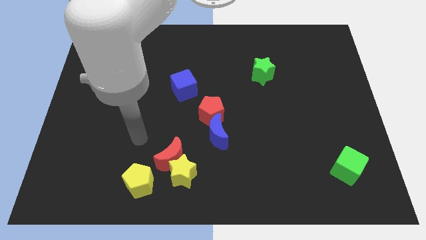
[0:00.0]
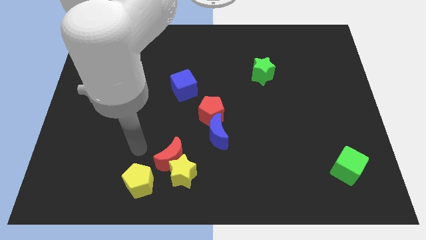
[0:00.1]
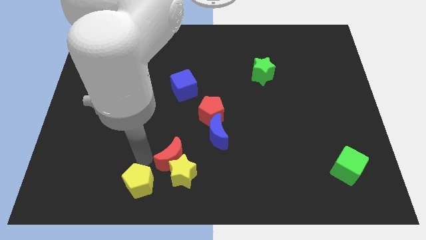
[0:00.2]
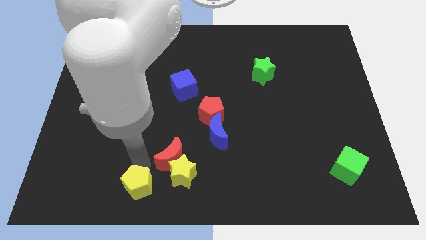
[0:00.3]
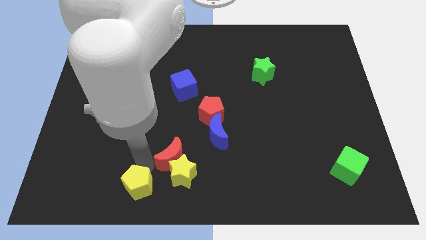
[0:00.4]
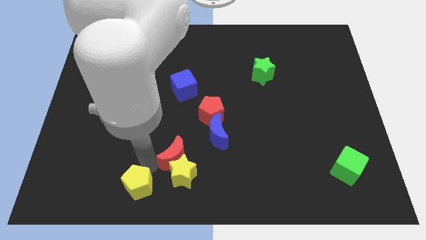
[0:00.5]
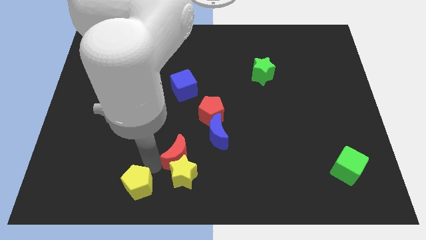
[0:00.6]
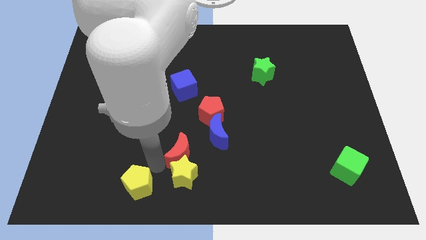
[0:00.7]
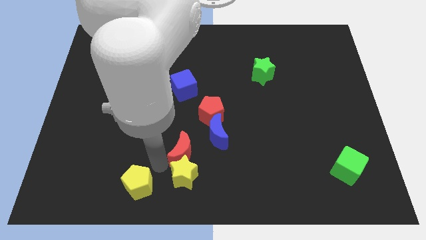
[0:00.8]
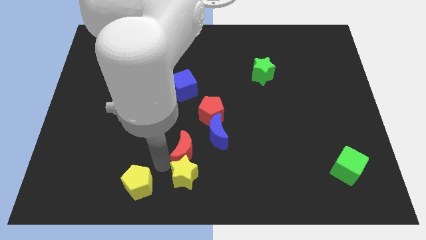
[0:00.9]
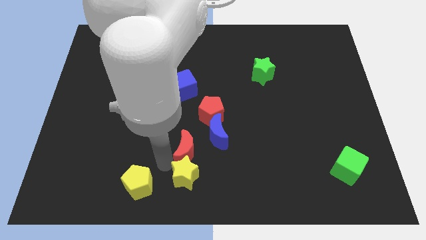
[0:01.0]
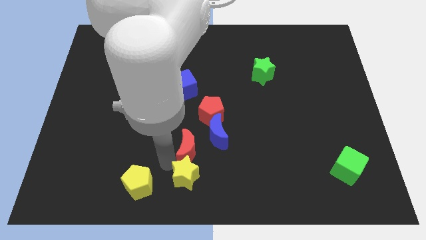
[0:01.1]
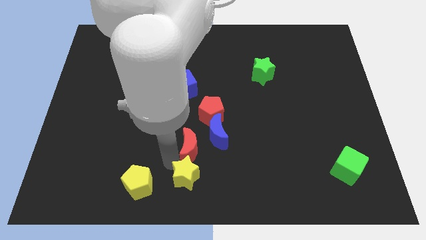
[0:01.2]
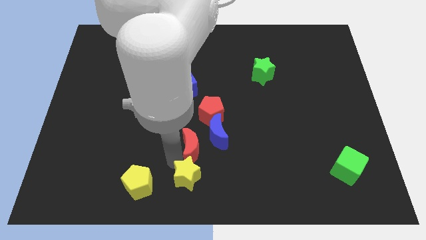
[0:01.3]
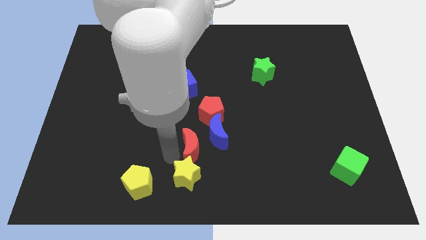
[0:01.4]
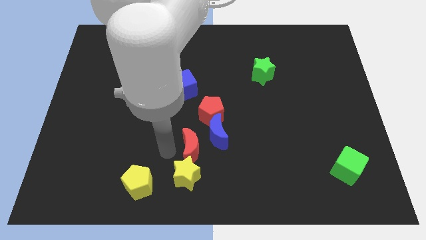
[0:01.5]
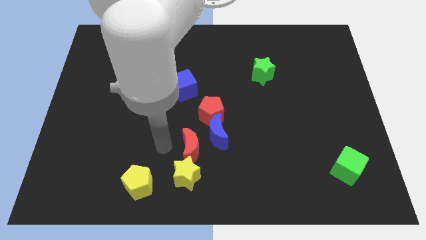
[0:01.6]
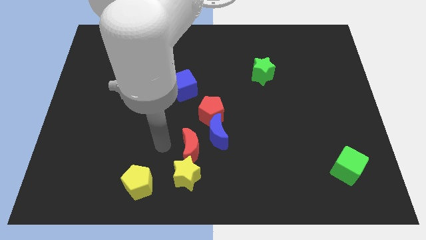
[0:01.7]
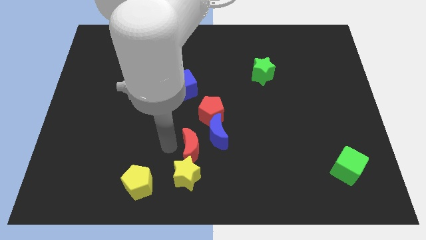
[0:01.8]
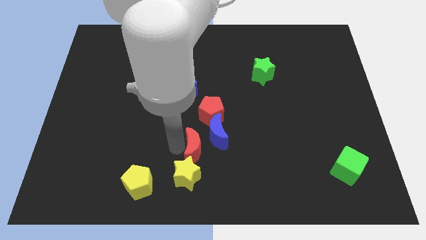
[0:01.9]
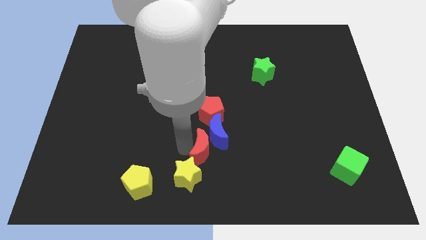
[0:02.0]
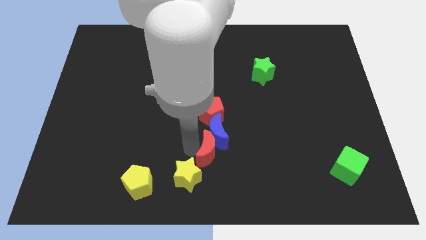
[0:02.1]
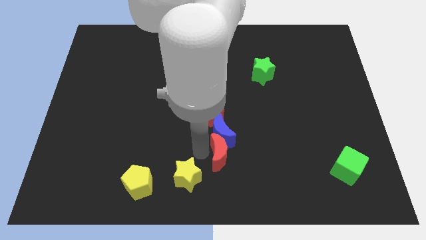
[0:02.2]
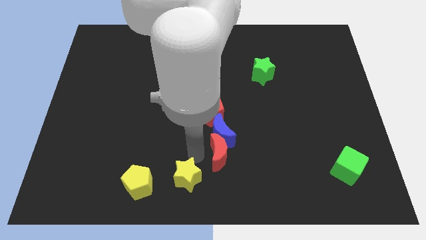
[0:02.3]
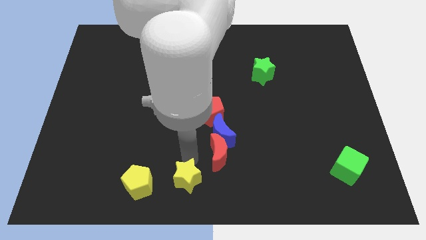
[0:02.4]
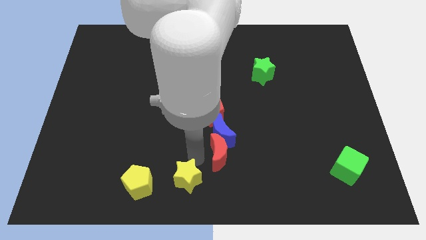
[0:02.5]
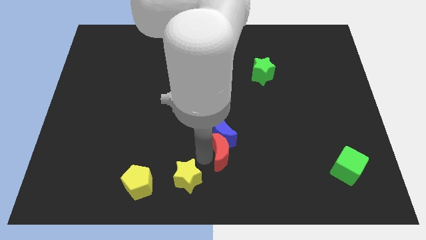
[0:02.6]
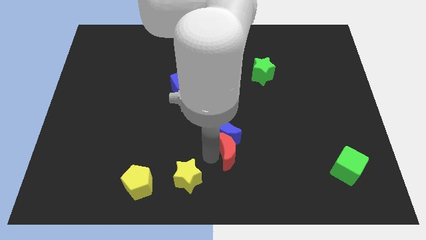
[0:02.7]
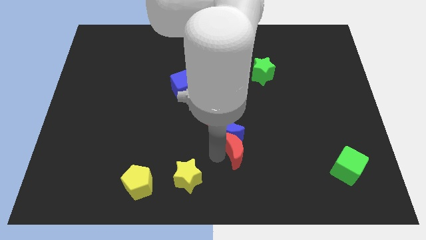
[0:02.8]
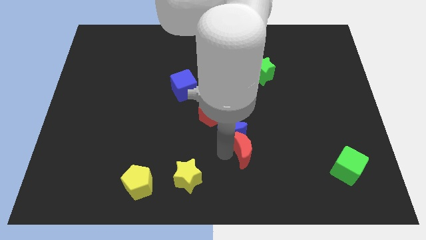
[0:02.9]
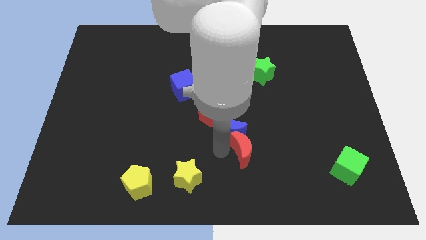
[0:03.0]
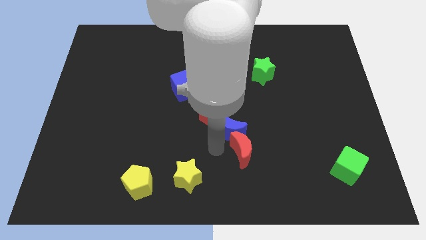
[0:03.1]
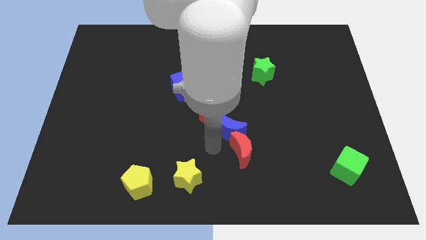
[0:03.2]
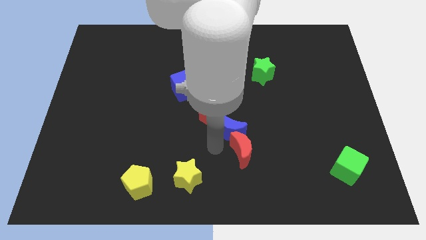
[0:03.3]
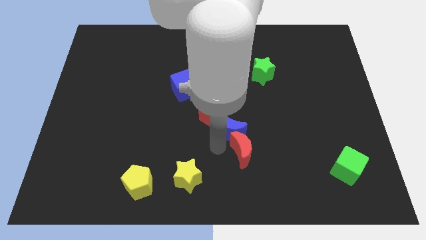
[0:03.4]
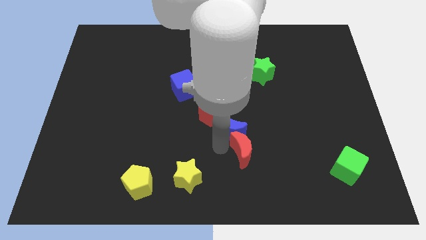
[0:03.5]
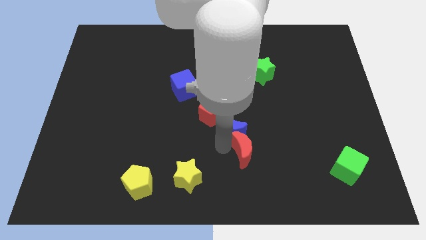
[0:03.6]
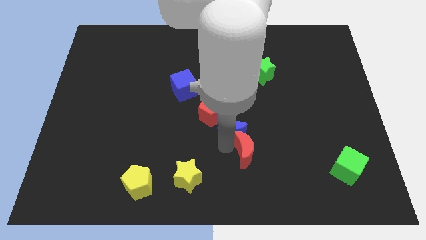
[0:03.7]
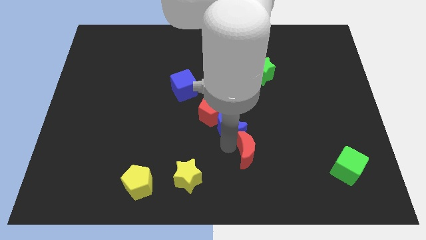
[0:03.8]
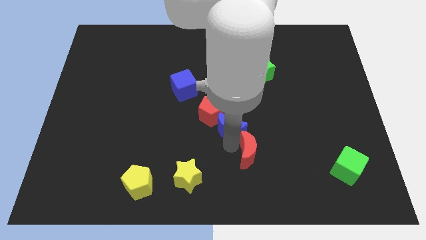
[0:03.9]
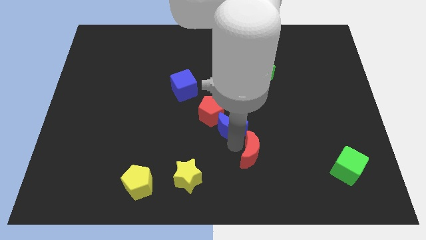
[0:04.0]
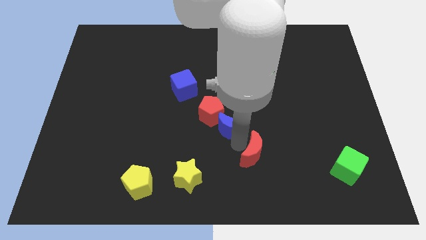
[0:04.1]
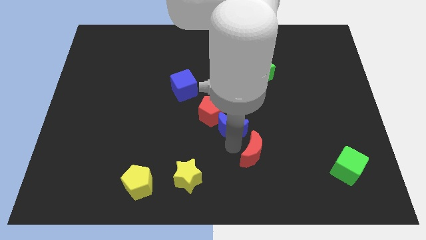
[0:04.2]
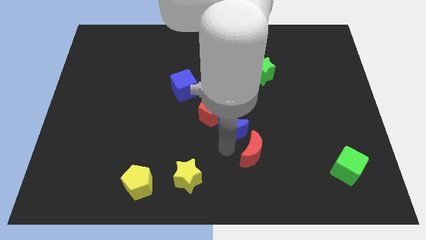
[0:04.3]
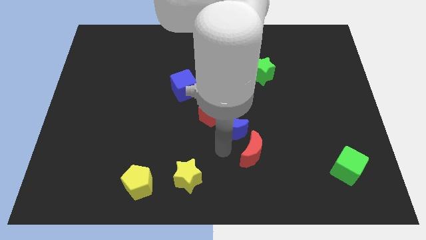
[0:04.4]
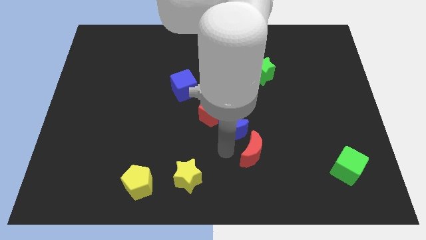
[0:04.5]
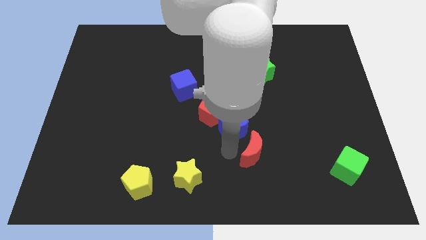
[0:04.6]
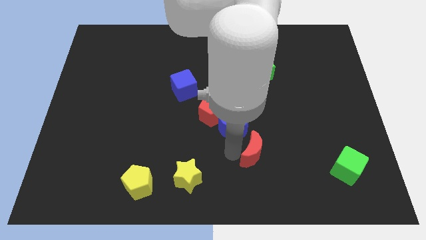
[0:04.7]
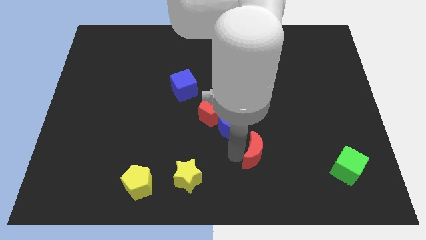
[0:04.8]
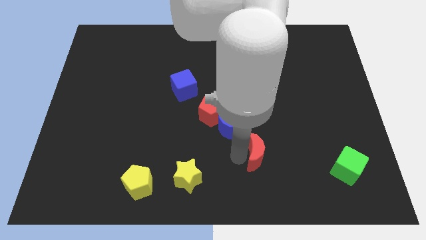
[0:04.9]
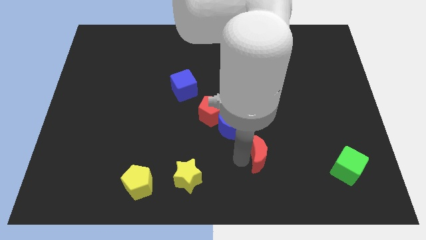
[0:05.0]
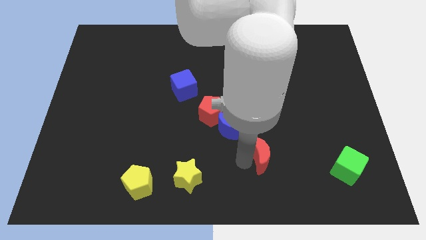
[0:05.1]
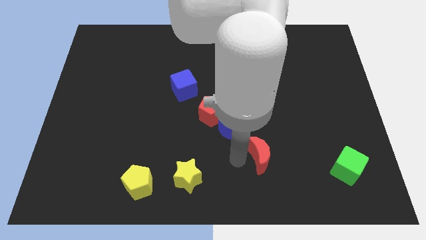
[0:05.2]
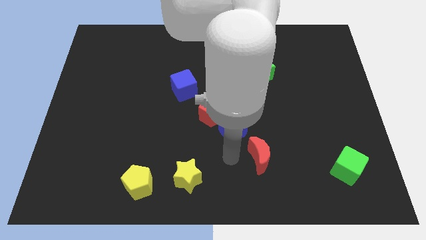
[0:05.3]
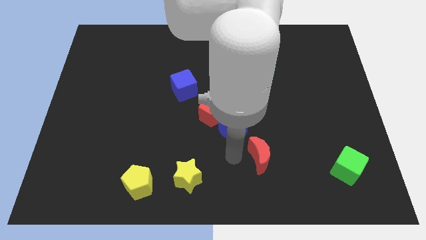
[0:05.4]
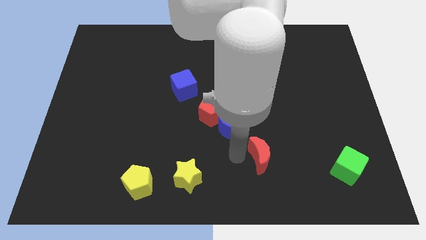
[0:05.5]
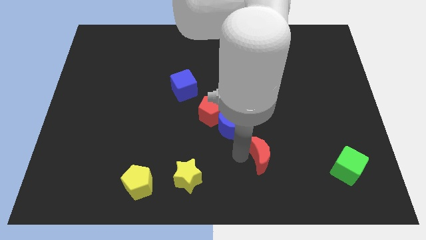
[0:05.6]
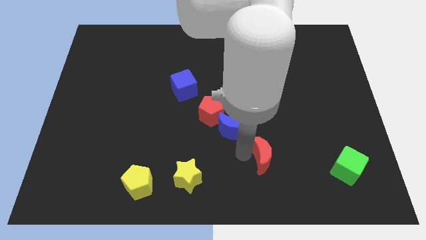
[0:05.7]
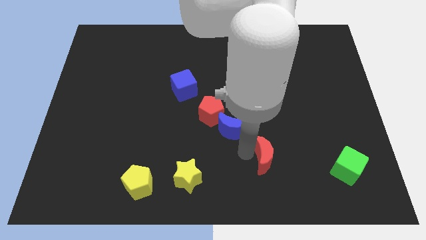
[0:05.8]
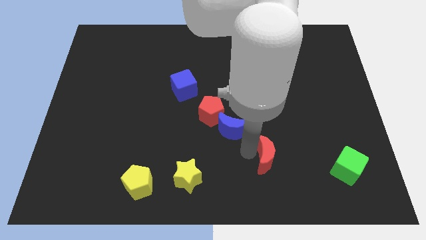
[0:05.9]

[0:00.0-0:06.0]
move the red moon right

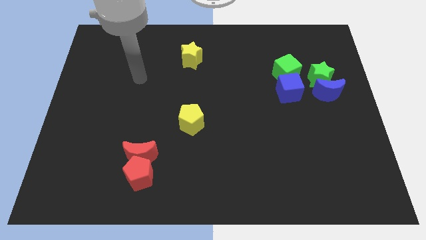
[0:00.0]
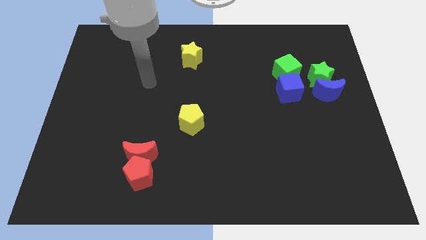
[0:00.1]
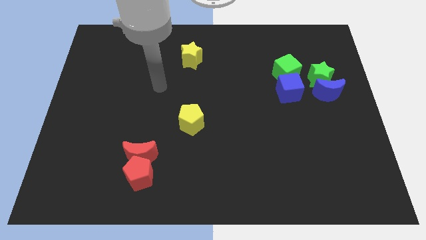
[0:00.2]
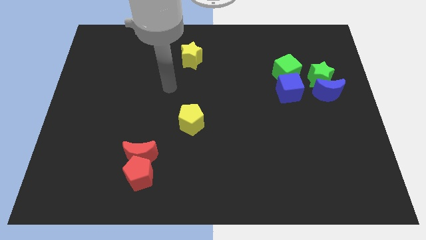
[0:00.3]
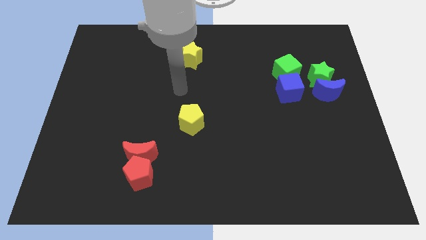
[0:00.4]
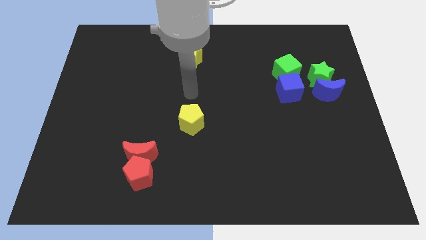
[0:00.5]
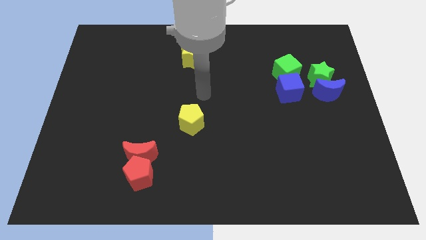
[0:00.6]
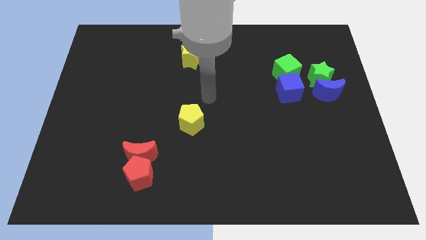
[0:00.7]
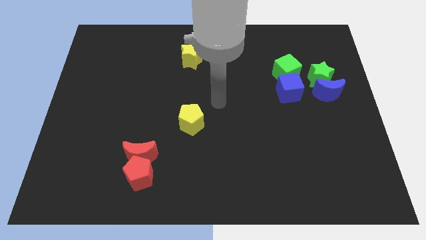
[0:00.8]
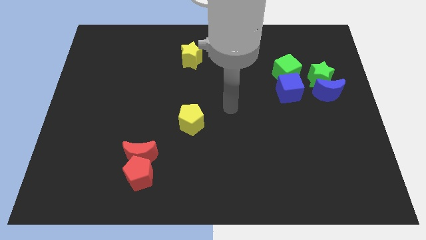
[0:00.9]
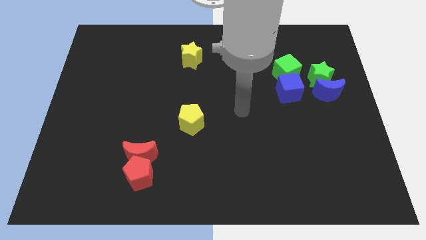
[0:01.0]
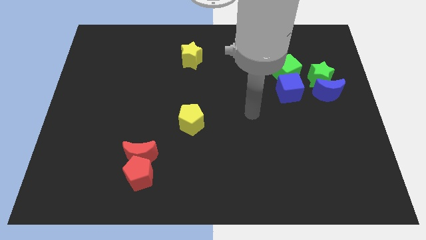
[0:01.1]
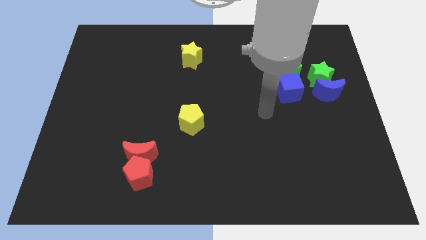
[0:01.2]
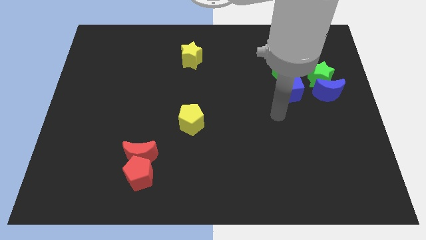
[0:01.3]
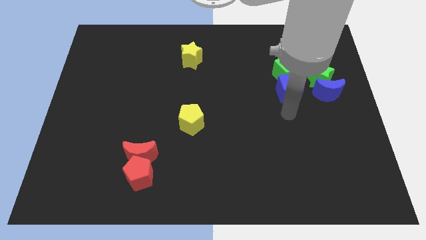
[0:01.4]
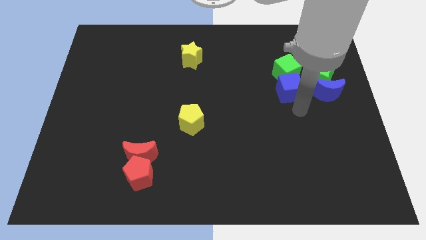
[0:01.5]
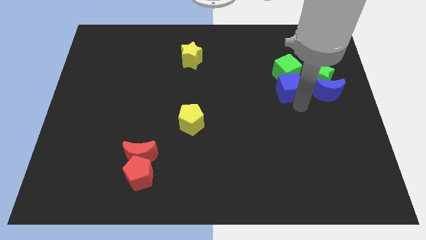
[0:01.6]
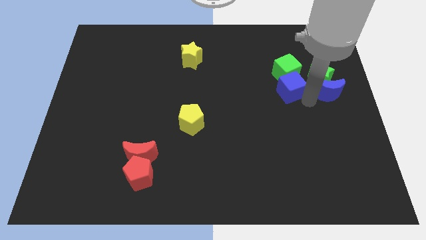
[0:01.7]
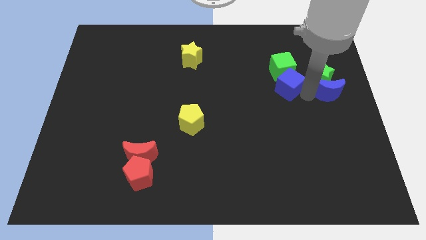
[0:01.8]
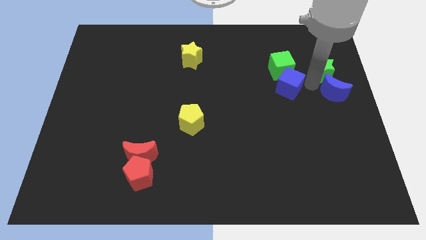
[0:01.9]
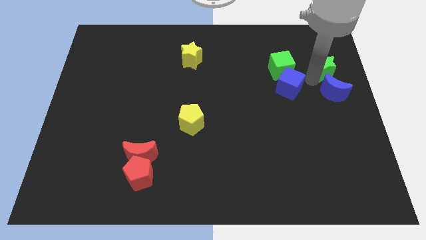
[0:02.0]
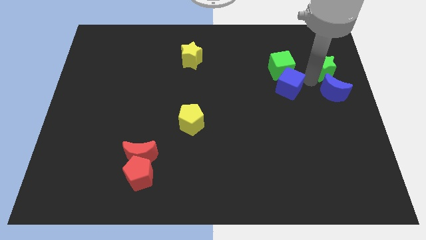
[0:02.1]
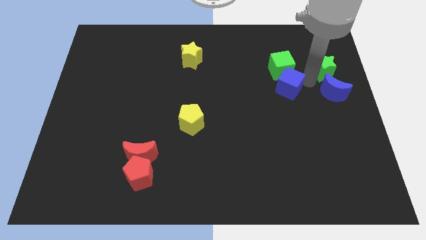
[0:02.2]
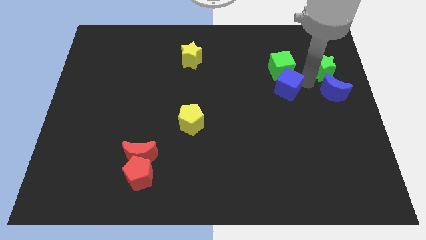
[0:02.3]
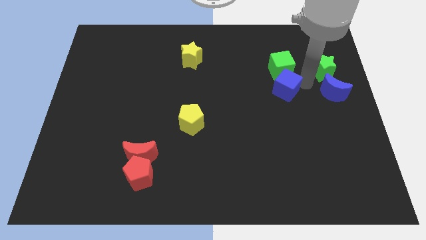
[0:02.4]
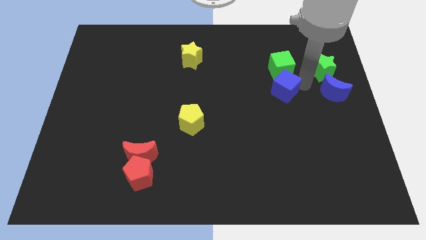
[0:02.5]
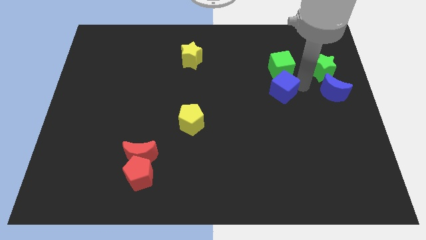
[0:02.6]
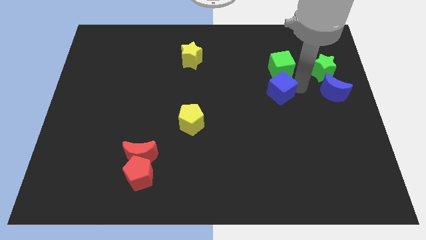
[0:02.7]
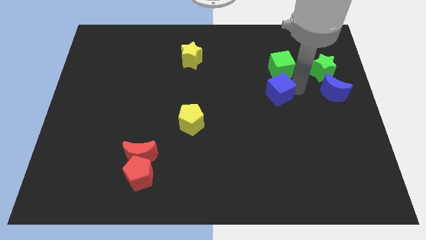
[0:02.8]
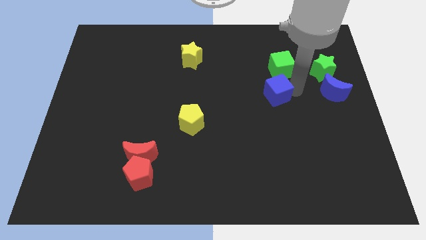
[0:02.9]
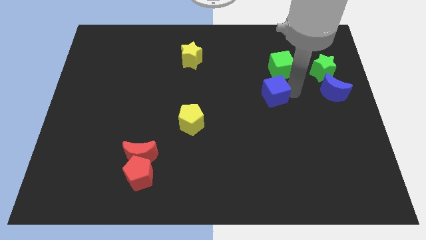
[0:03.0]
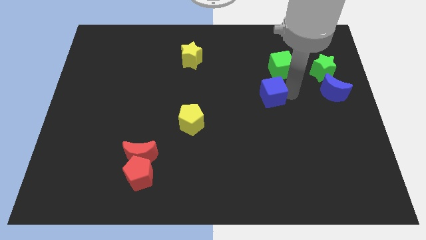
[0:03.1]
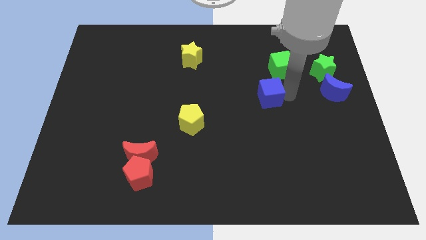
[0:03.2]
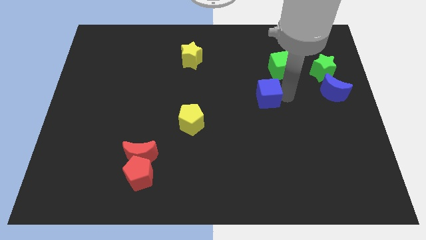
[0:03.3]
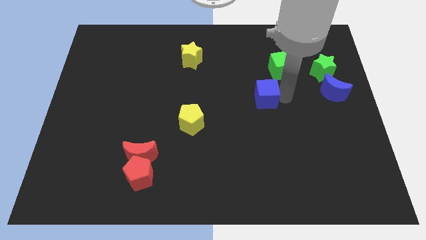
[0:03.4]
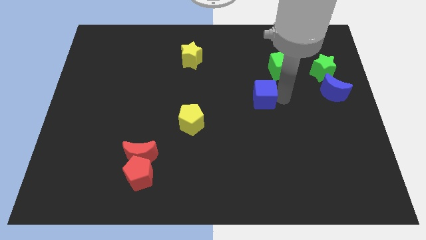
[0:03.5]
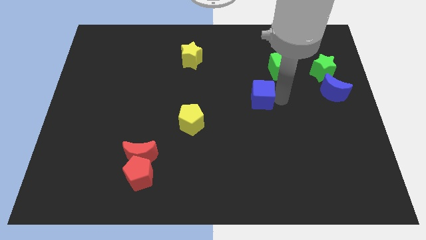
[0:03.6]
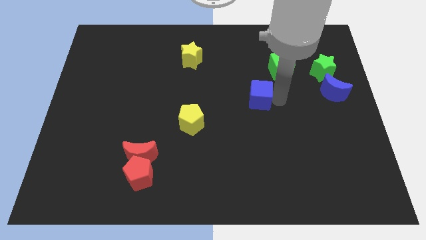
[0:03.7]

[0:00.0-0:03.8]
slightly slide the blue cube left
